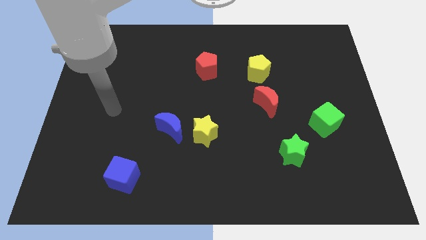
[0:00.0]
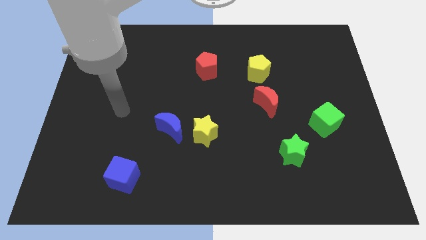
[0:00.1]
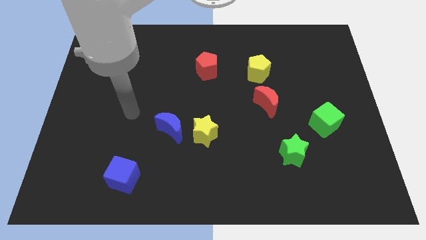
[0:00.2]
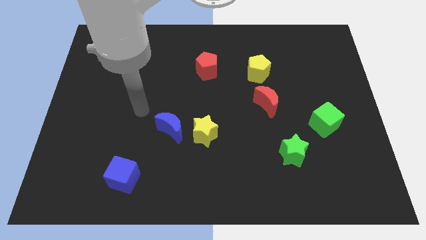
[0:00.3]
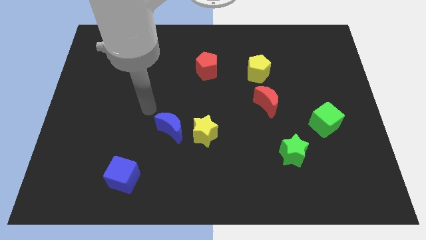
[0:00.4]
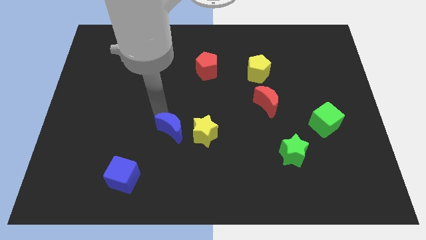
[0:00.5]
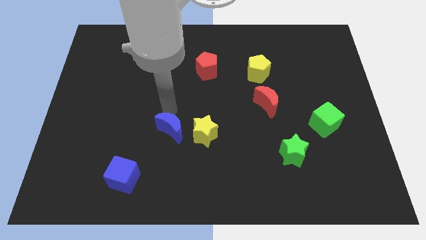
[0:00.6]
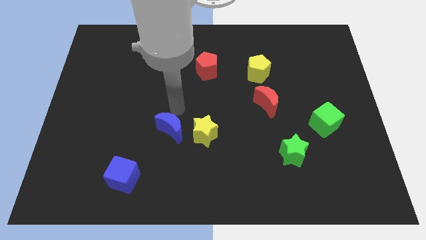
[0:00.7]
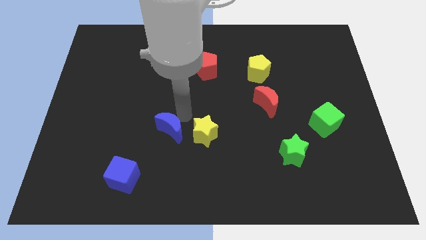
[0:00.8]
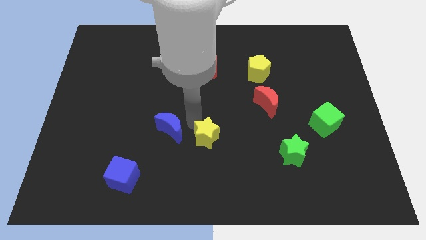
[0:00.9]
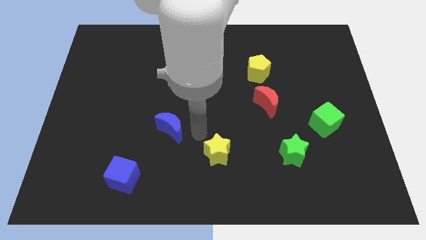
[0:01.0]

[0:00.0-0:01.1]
pull the blue moon apart from the yellow star

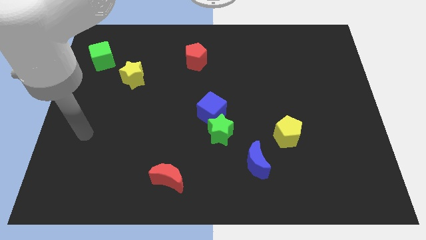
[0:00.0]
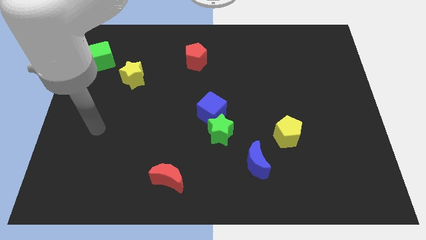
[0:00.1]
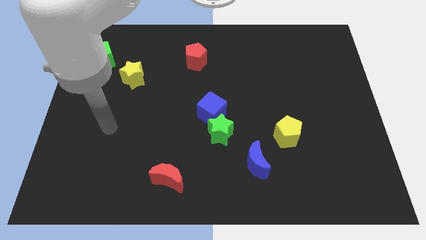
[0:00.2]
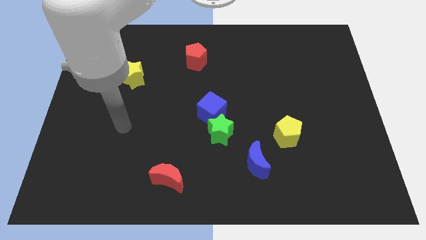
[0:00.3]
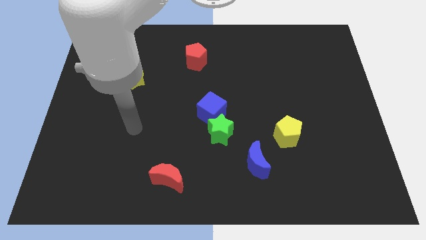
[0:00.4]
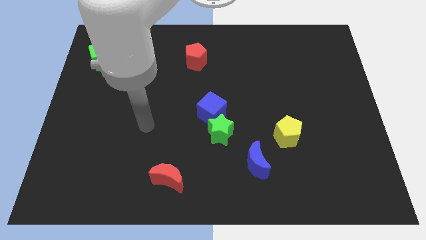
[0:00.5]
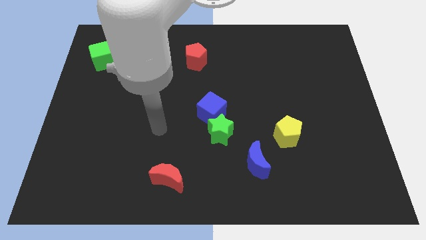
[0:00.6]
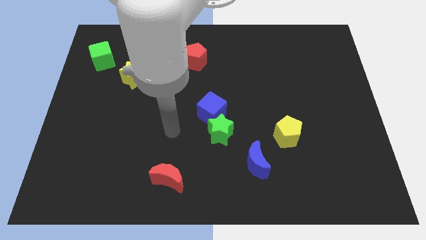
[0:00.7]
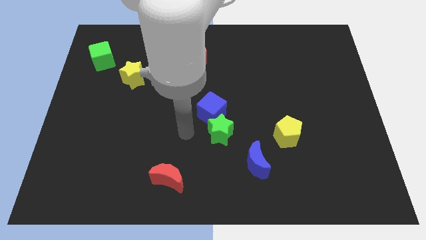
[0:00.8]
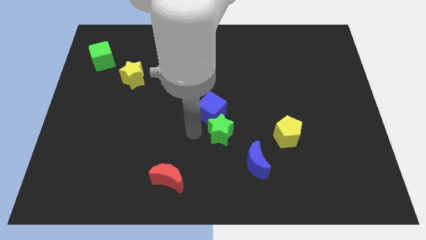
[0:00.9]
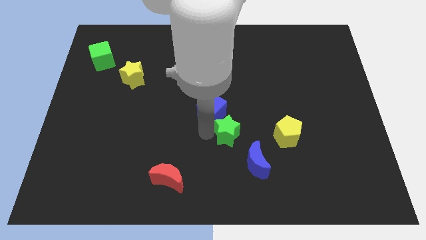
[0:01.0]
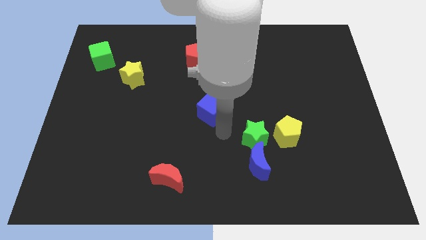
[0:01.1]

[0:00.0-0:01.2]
move the blue cube away from the green star

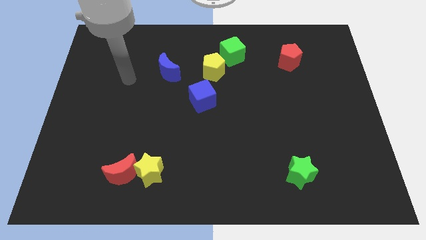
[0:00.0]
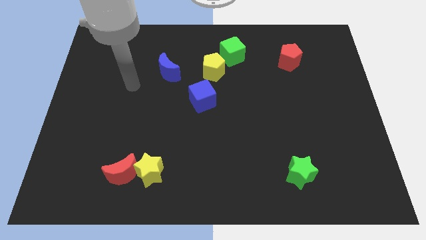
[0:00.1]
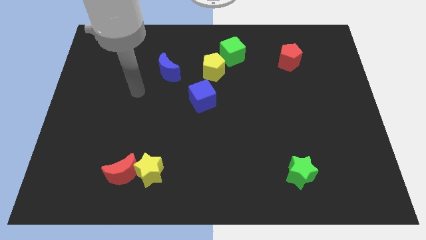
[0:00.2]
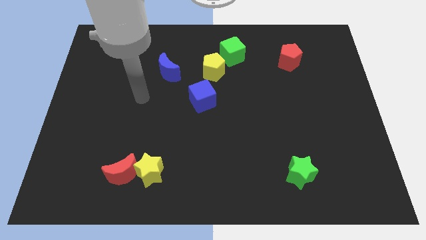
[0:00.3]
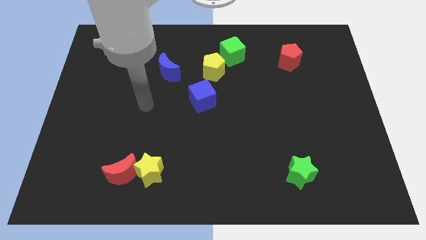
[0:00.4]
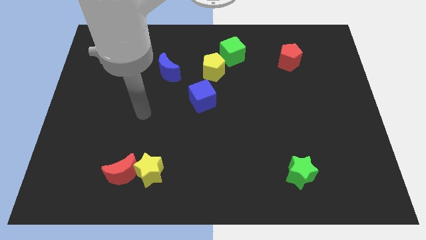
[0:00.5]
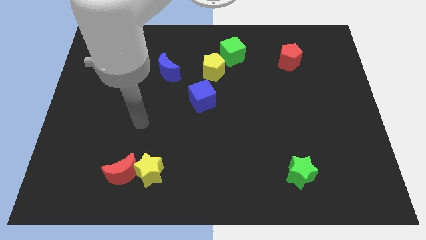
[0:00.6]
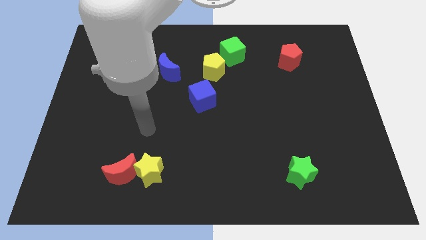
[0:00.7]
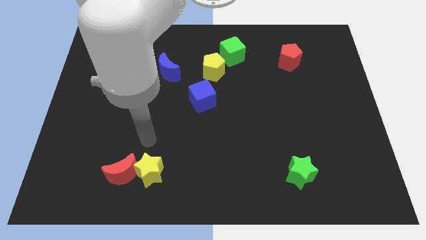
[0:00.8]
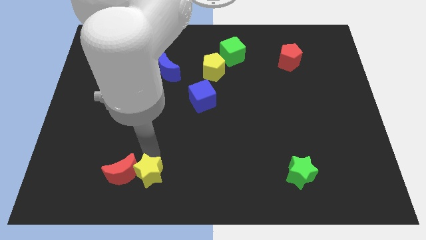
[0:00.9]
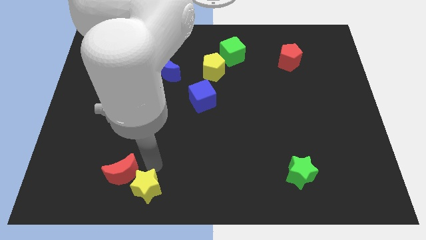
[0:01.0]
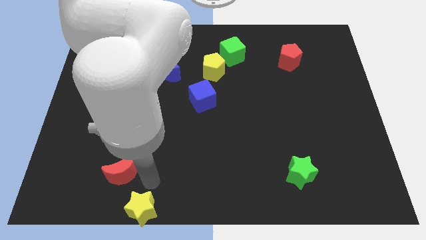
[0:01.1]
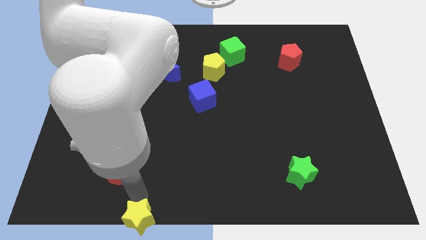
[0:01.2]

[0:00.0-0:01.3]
separate the red moon from the yellow star

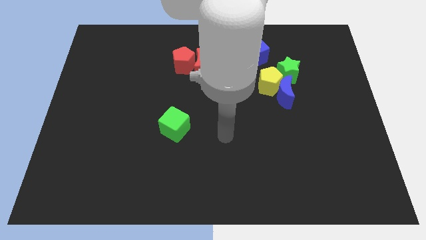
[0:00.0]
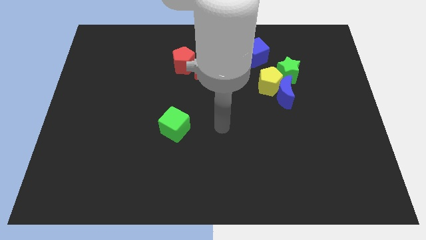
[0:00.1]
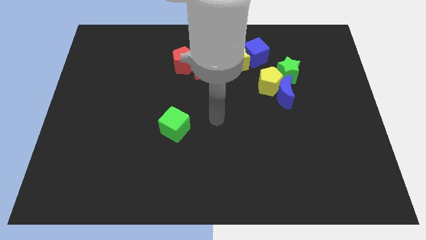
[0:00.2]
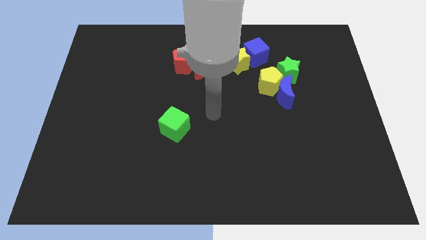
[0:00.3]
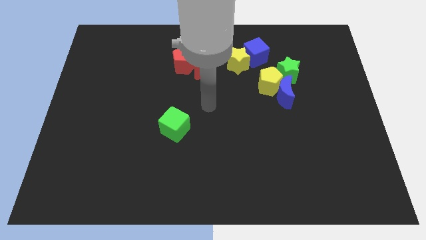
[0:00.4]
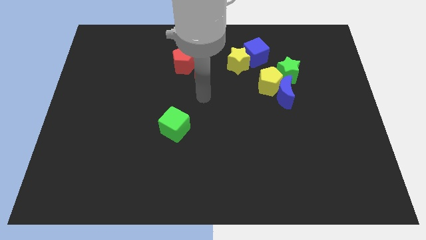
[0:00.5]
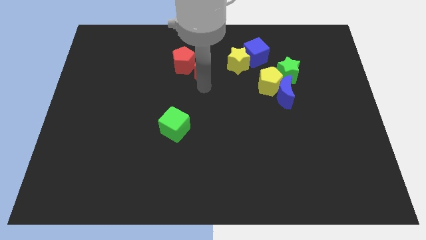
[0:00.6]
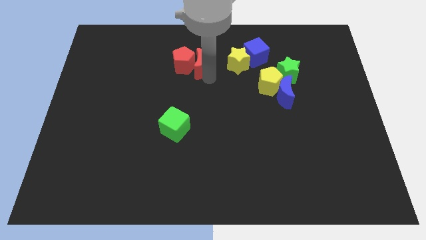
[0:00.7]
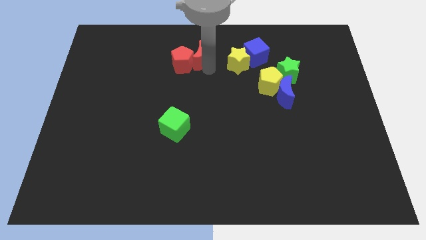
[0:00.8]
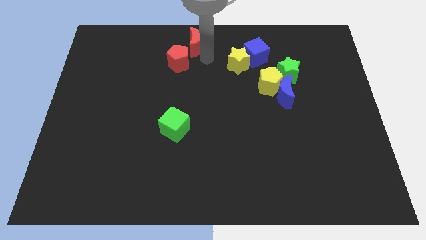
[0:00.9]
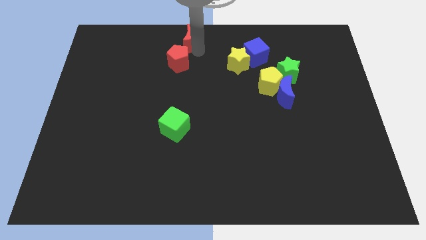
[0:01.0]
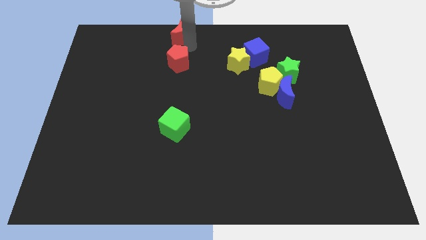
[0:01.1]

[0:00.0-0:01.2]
move the red pentagon away from the red moon

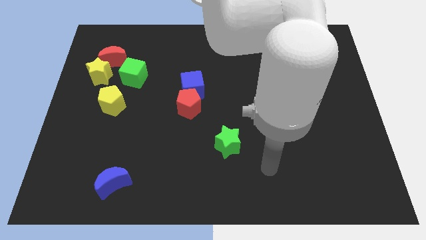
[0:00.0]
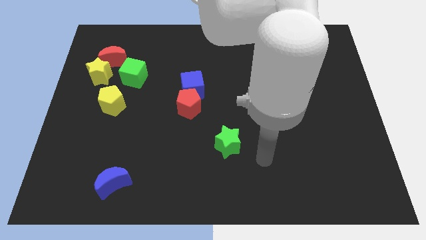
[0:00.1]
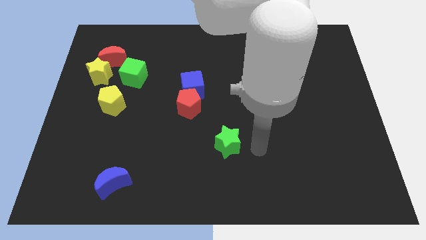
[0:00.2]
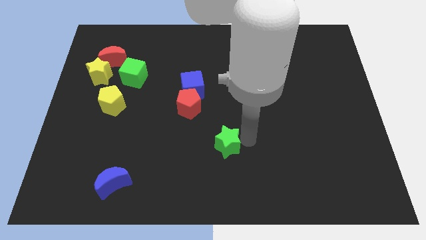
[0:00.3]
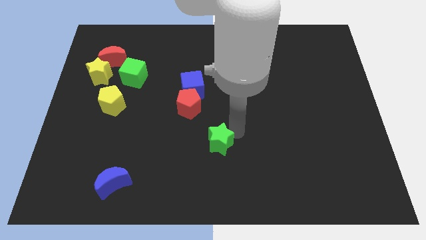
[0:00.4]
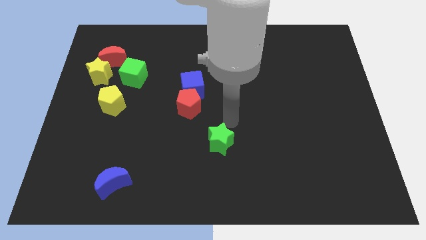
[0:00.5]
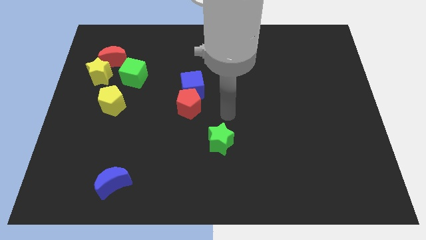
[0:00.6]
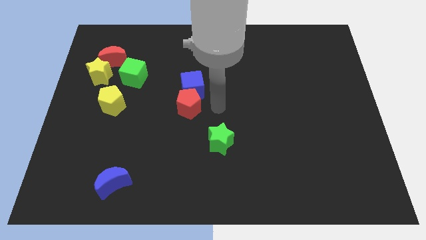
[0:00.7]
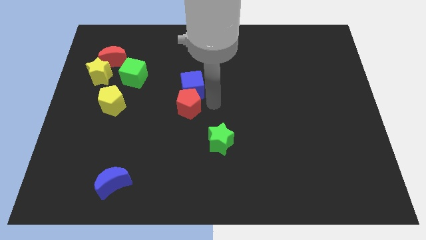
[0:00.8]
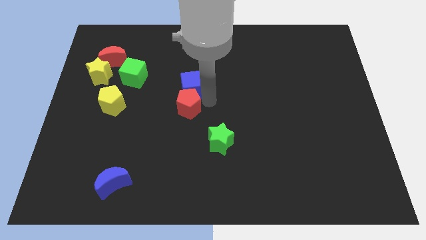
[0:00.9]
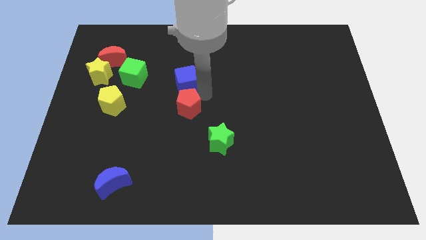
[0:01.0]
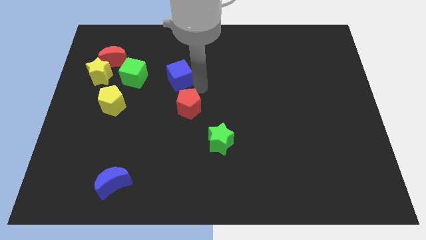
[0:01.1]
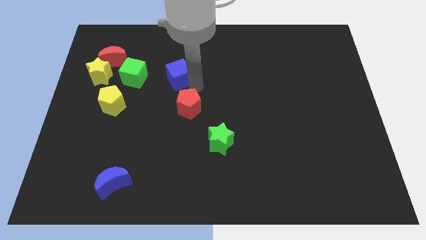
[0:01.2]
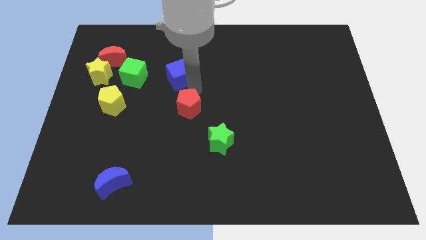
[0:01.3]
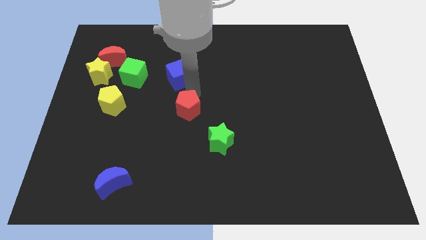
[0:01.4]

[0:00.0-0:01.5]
separate the red pentagon from the blue cube

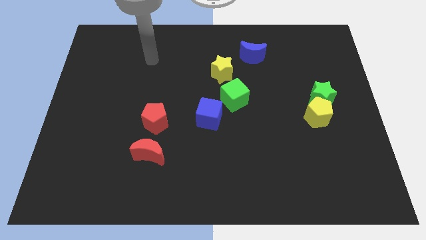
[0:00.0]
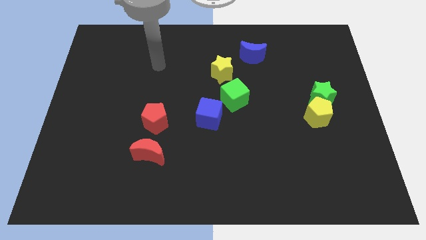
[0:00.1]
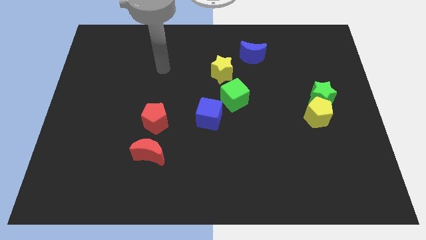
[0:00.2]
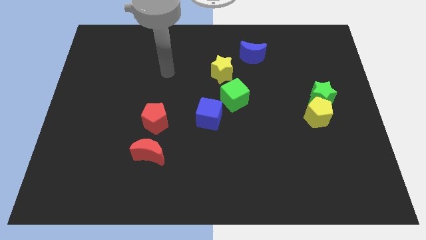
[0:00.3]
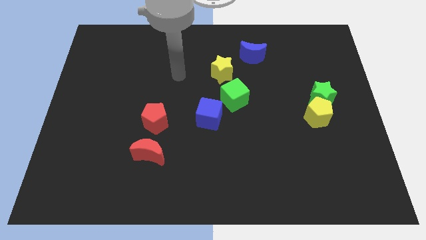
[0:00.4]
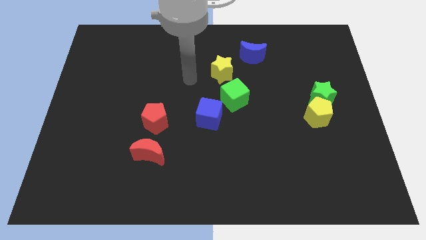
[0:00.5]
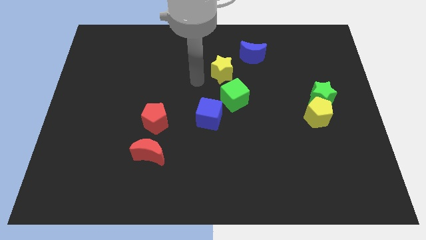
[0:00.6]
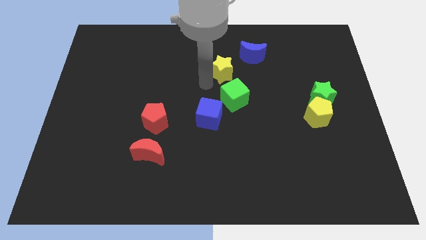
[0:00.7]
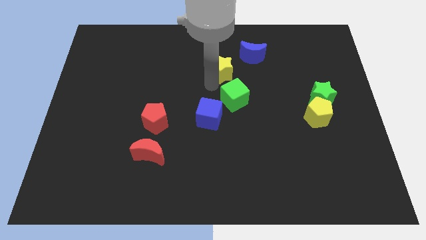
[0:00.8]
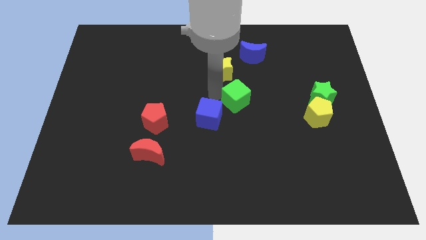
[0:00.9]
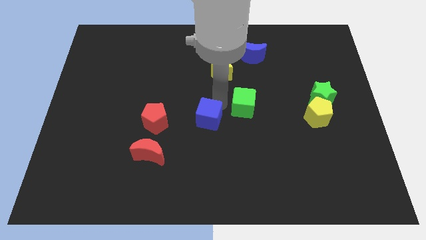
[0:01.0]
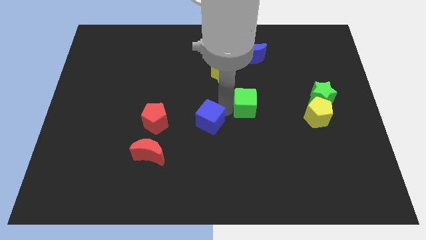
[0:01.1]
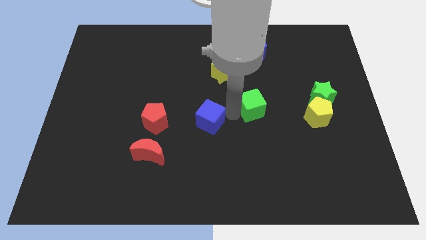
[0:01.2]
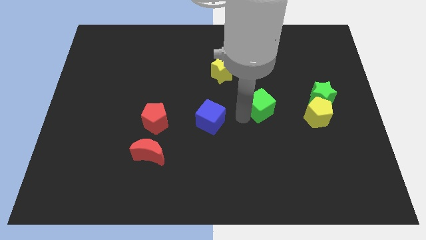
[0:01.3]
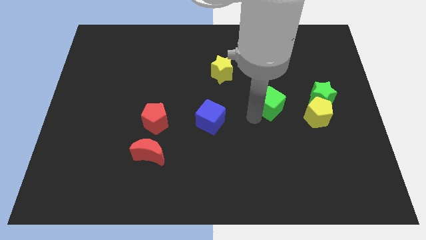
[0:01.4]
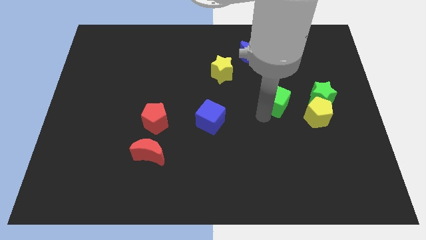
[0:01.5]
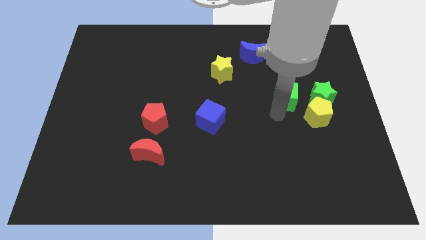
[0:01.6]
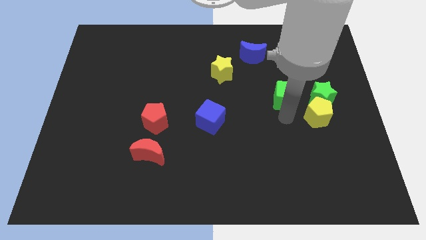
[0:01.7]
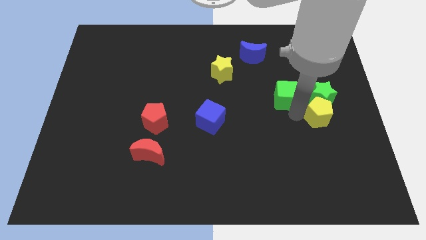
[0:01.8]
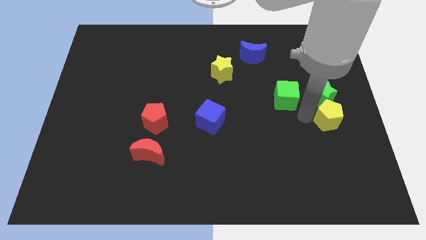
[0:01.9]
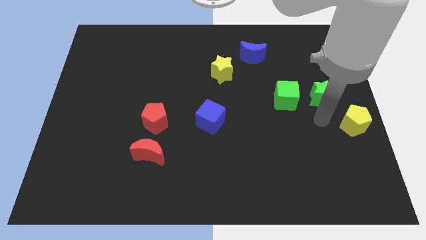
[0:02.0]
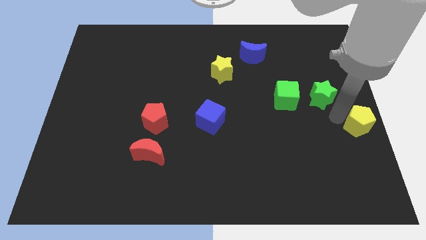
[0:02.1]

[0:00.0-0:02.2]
separate the green star from the yellow pentagon

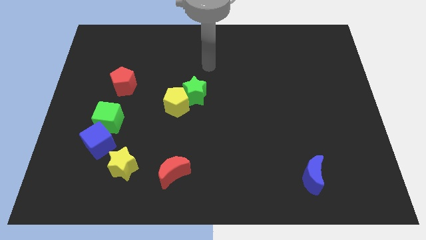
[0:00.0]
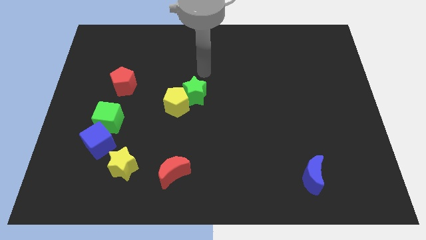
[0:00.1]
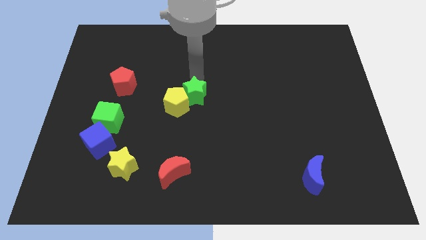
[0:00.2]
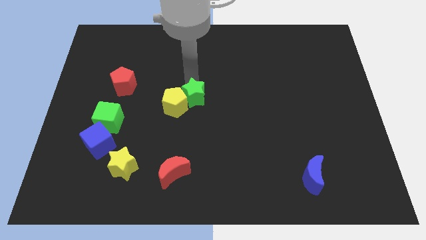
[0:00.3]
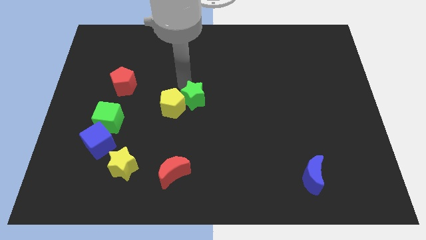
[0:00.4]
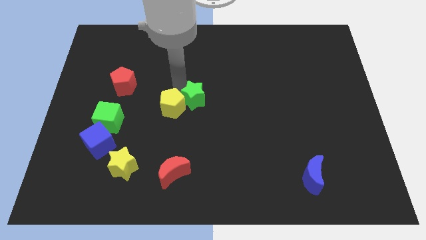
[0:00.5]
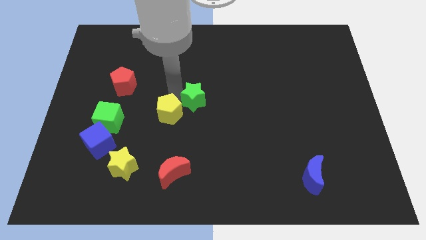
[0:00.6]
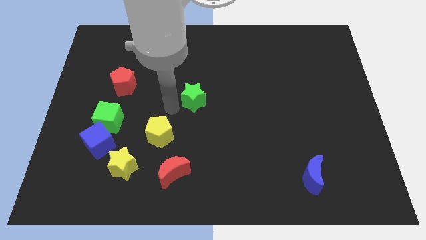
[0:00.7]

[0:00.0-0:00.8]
pull the green star apart from the yellow pentagon
